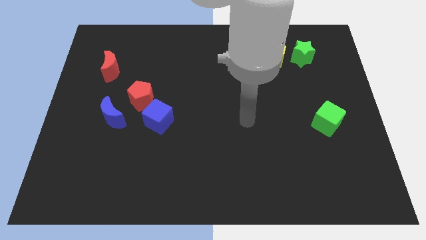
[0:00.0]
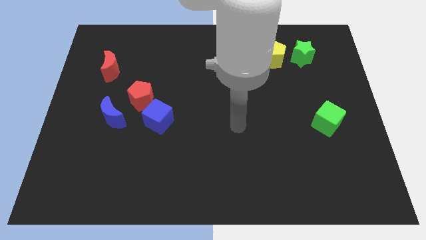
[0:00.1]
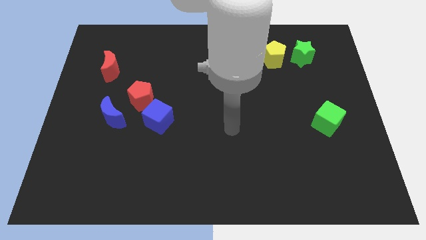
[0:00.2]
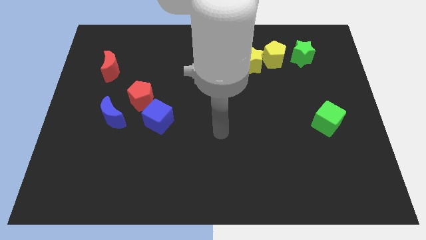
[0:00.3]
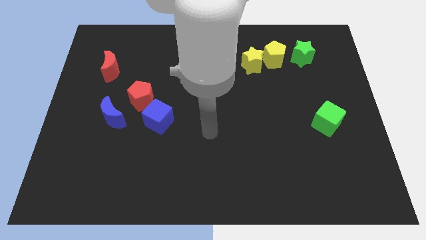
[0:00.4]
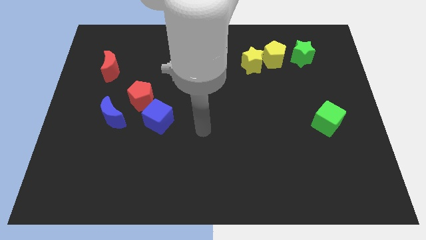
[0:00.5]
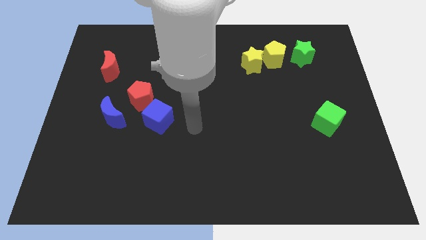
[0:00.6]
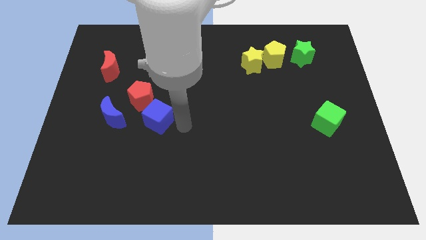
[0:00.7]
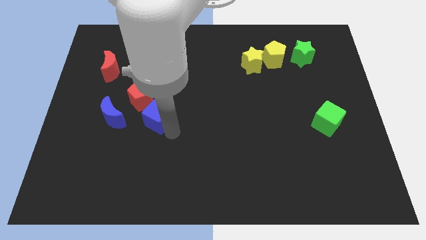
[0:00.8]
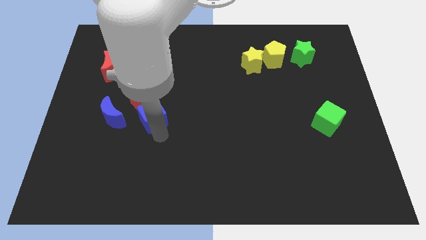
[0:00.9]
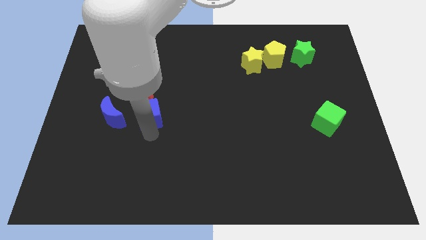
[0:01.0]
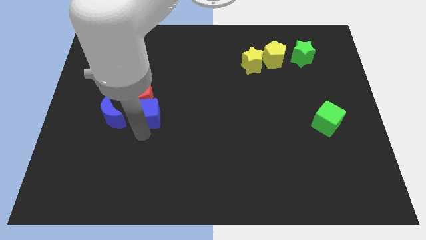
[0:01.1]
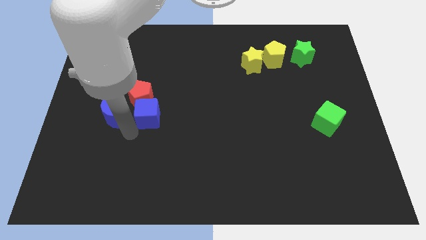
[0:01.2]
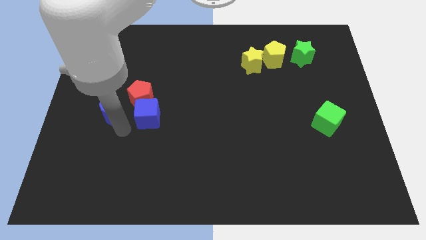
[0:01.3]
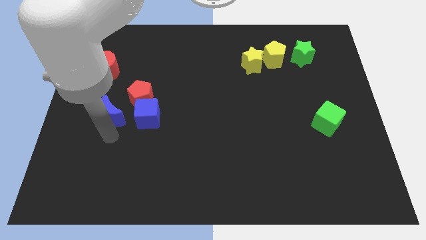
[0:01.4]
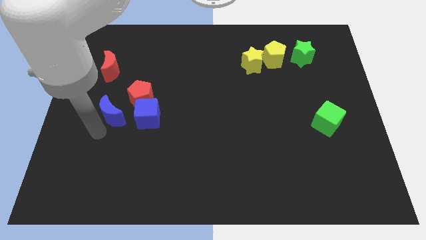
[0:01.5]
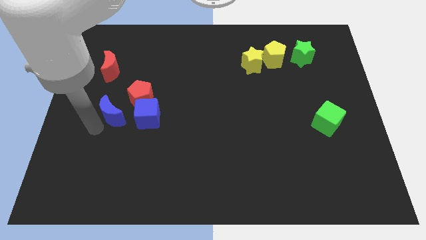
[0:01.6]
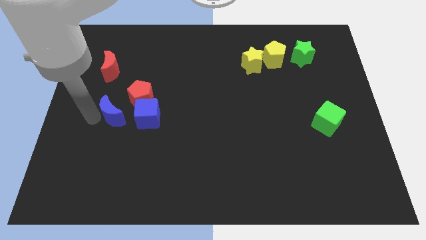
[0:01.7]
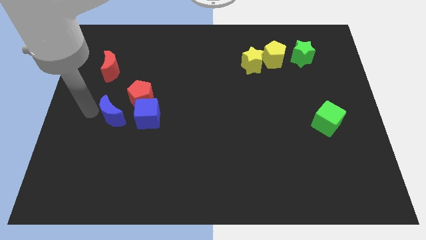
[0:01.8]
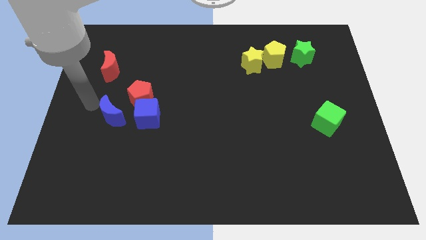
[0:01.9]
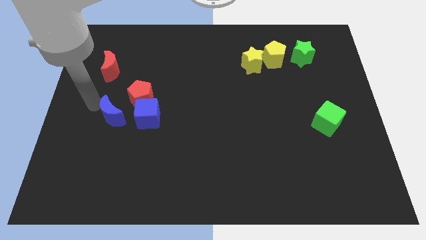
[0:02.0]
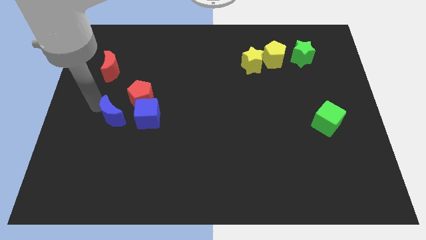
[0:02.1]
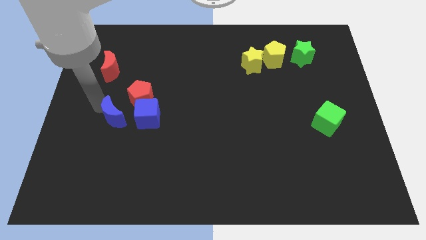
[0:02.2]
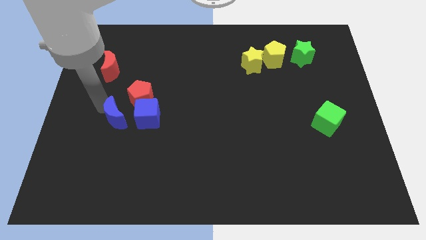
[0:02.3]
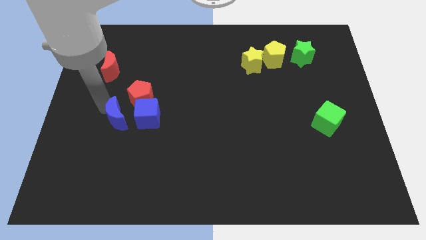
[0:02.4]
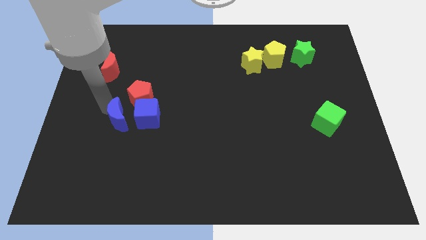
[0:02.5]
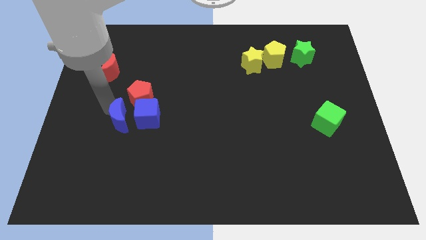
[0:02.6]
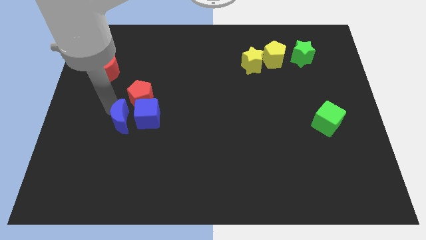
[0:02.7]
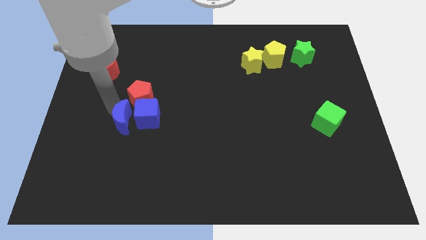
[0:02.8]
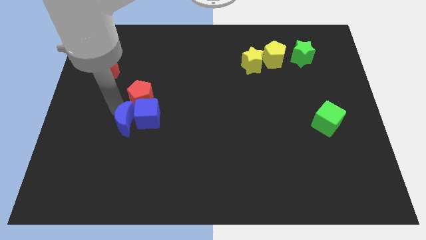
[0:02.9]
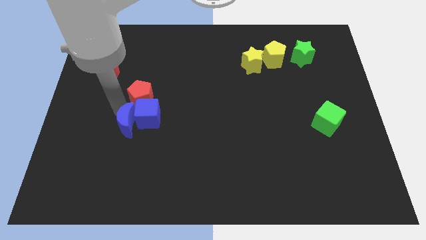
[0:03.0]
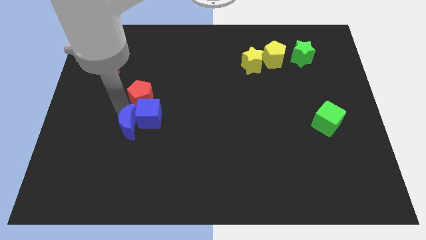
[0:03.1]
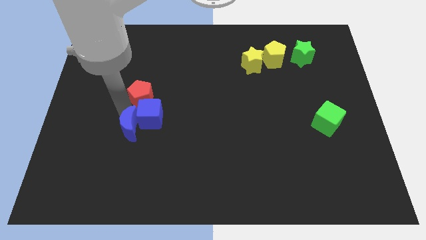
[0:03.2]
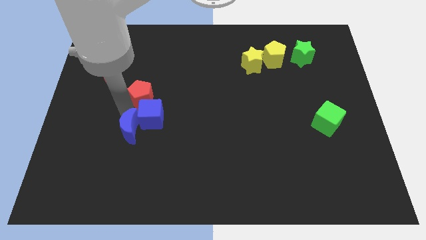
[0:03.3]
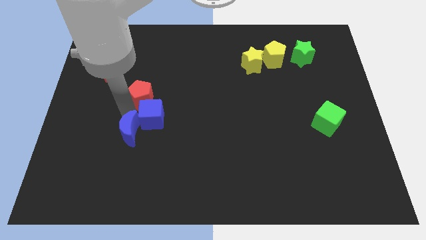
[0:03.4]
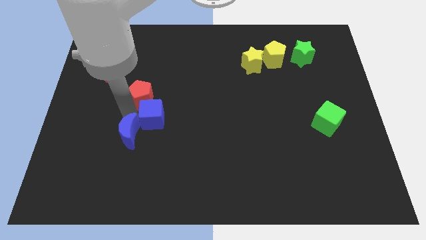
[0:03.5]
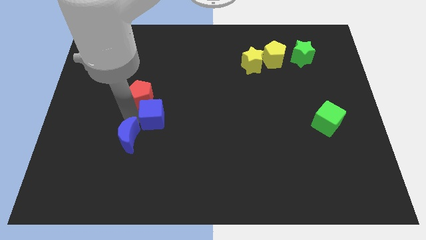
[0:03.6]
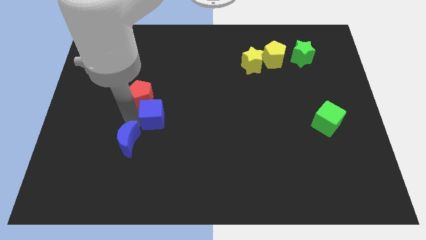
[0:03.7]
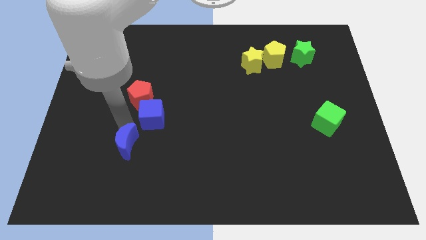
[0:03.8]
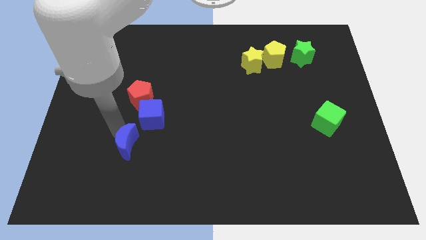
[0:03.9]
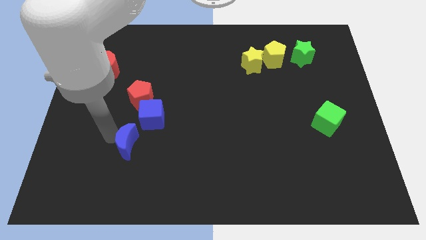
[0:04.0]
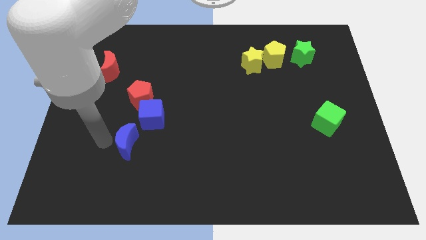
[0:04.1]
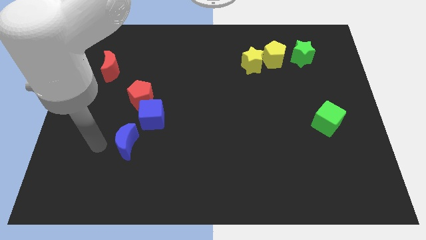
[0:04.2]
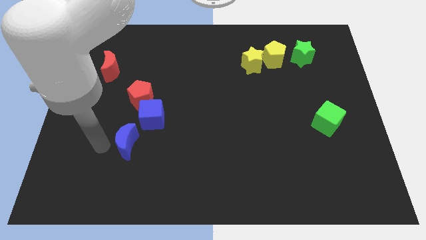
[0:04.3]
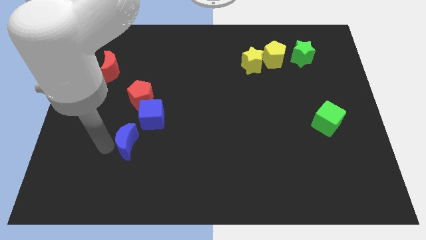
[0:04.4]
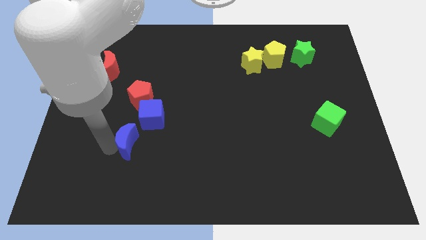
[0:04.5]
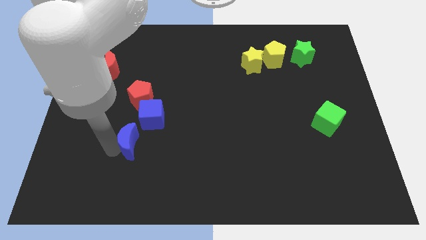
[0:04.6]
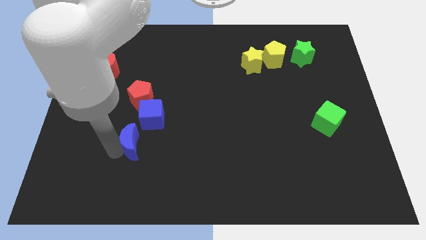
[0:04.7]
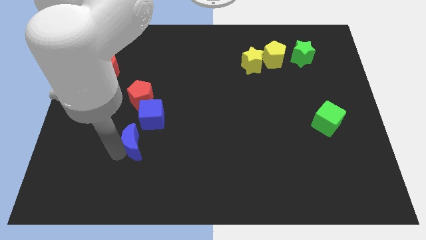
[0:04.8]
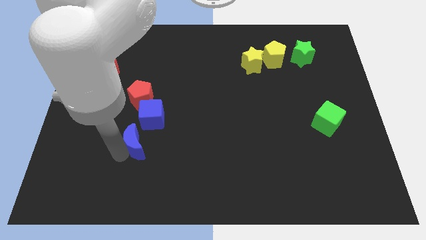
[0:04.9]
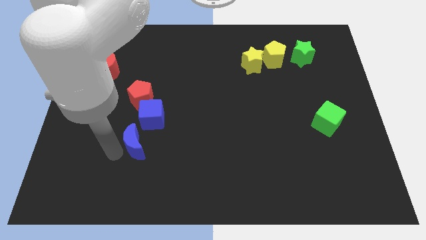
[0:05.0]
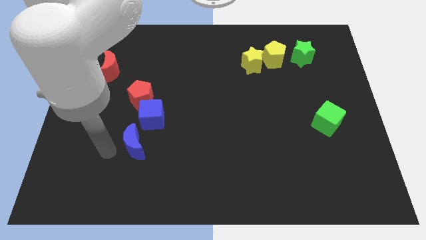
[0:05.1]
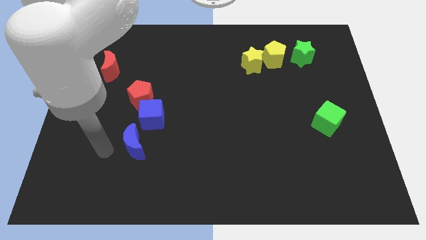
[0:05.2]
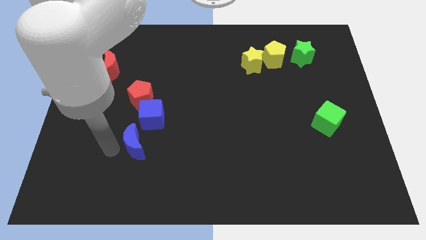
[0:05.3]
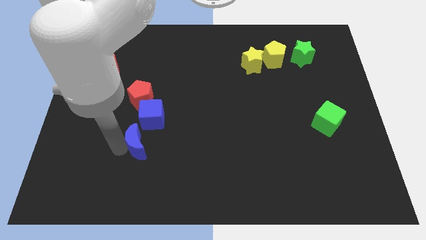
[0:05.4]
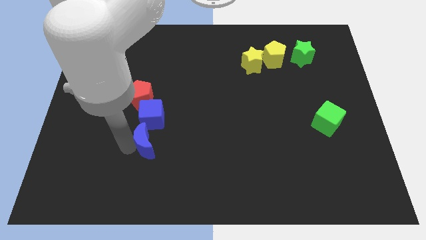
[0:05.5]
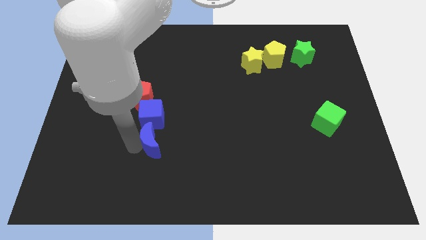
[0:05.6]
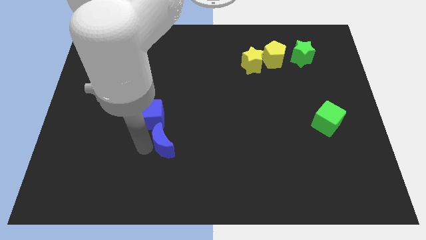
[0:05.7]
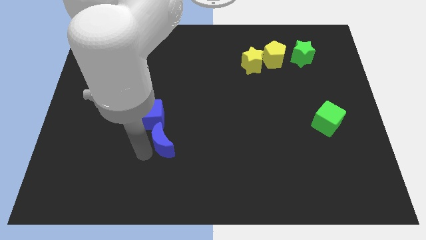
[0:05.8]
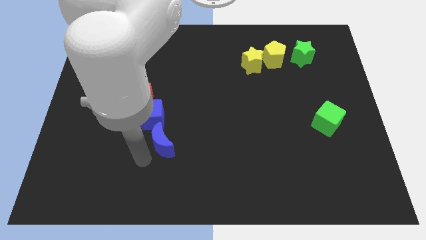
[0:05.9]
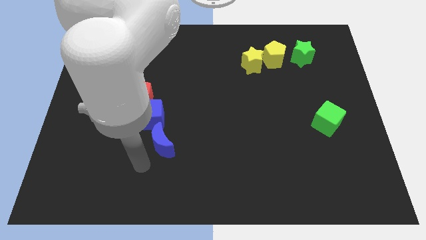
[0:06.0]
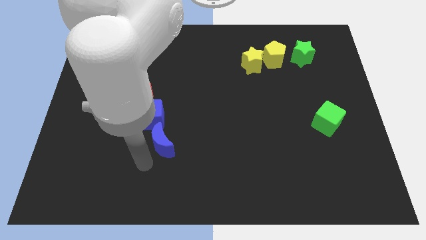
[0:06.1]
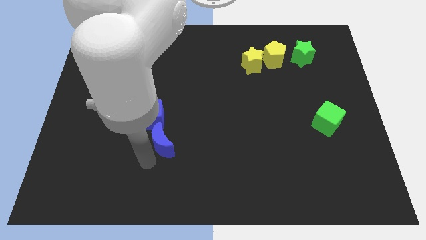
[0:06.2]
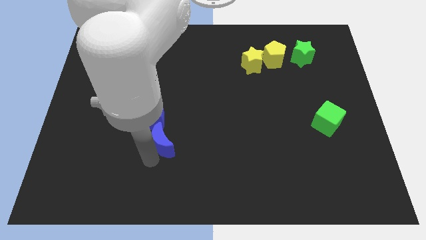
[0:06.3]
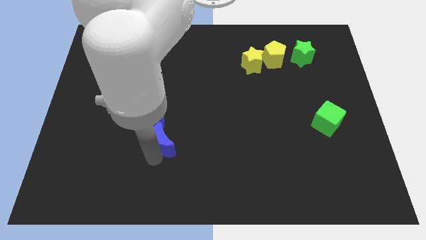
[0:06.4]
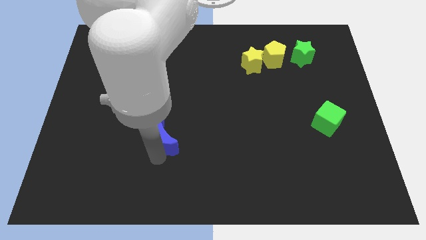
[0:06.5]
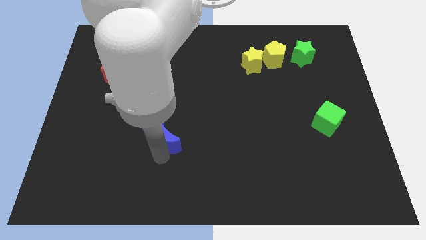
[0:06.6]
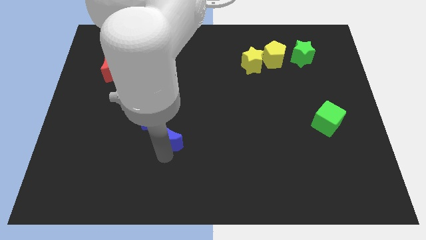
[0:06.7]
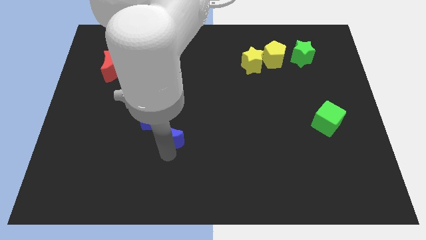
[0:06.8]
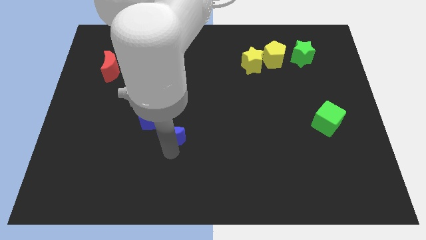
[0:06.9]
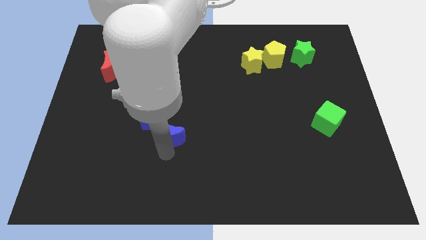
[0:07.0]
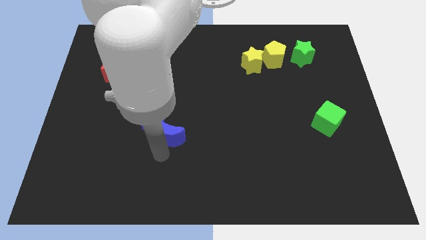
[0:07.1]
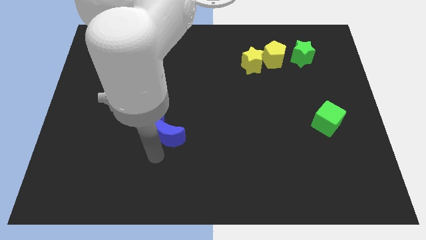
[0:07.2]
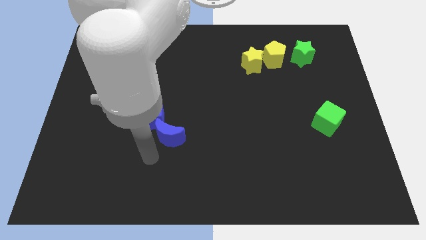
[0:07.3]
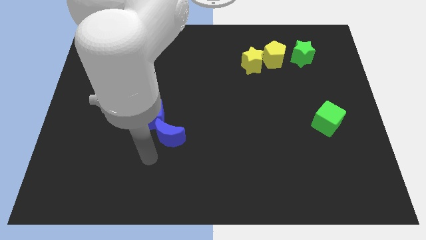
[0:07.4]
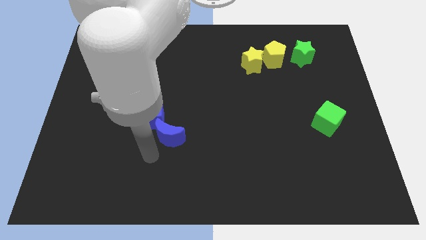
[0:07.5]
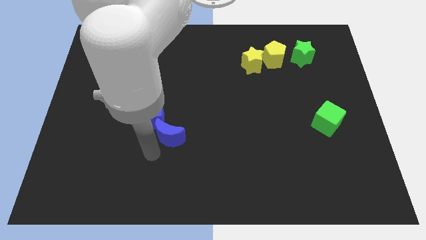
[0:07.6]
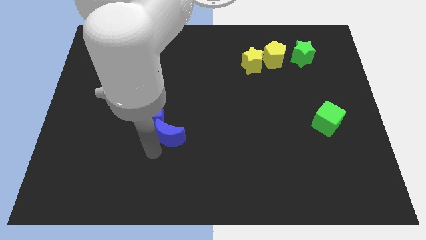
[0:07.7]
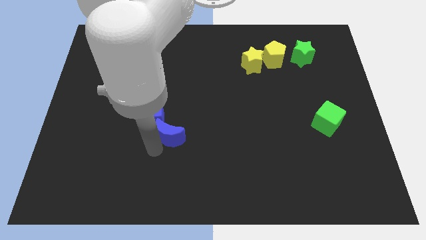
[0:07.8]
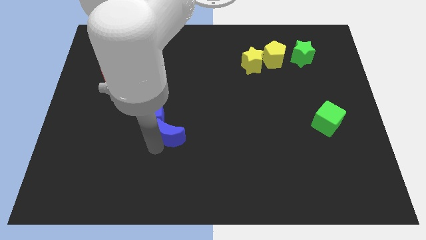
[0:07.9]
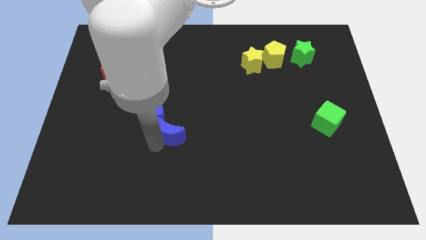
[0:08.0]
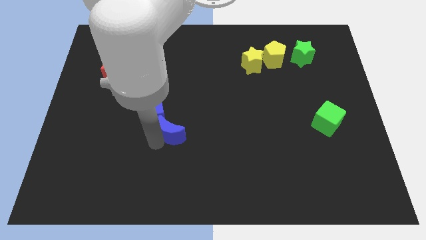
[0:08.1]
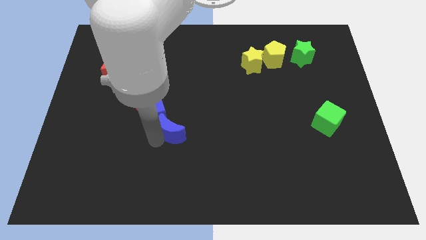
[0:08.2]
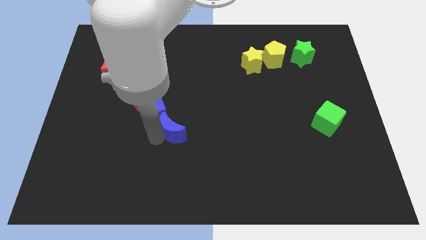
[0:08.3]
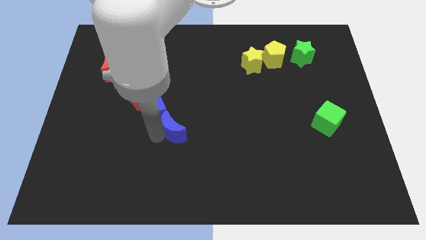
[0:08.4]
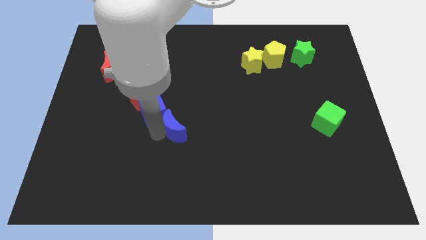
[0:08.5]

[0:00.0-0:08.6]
put the blue moon to the middle of the board
